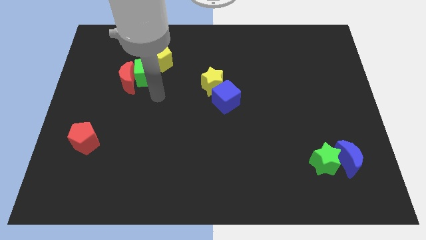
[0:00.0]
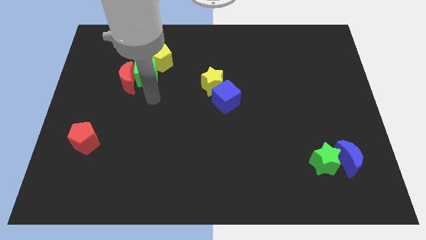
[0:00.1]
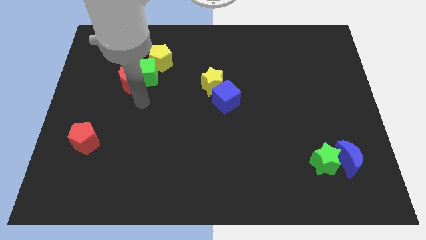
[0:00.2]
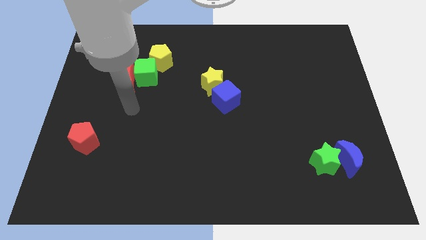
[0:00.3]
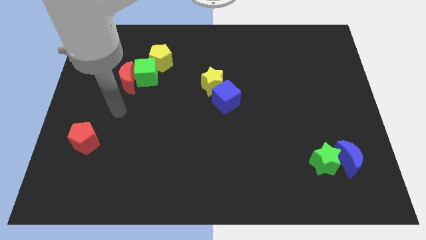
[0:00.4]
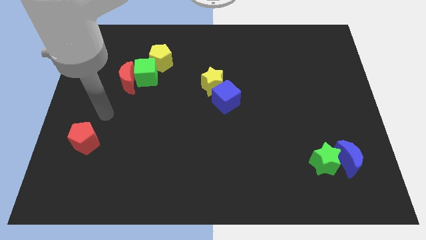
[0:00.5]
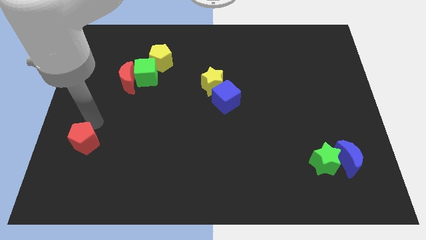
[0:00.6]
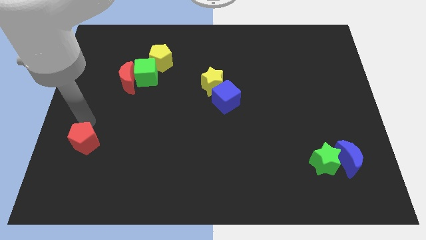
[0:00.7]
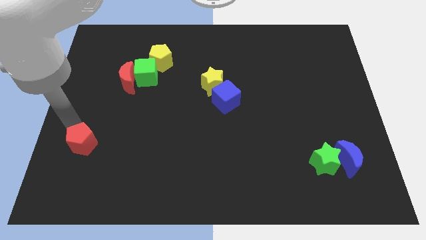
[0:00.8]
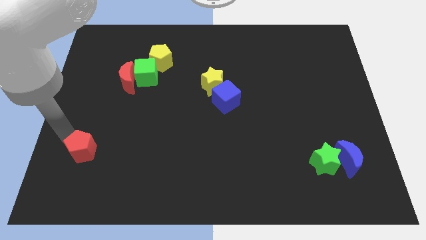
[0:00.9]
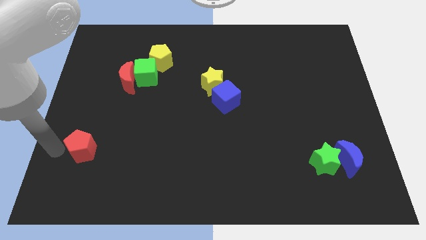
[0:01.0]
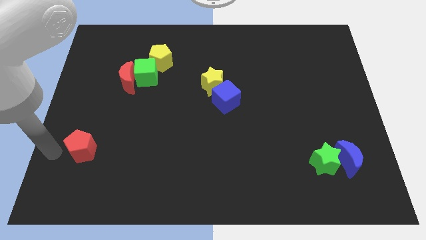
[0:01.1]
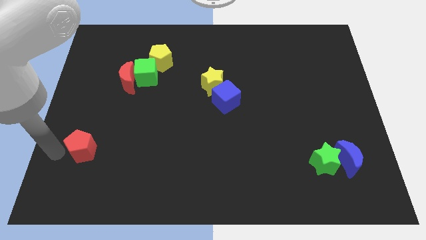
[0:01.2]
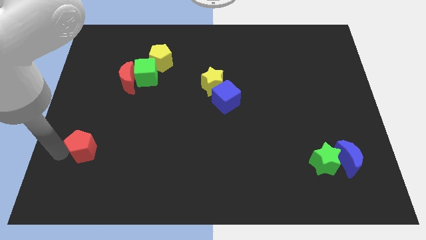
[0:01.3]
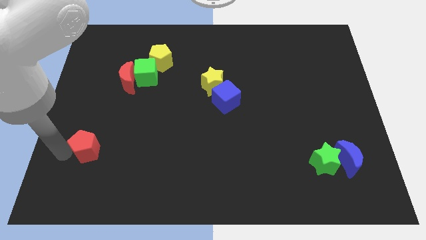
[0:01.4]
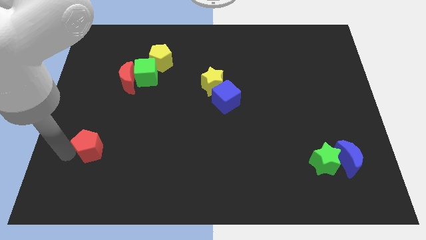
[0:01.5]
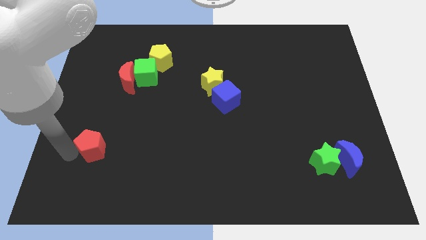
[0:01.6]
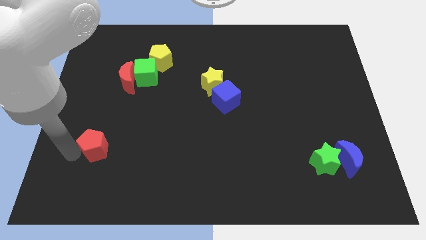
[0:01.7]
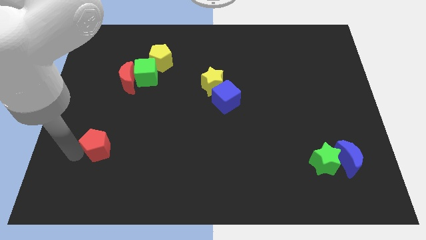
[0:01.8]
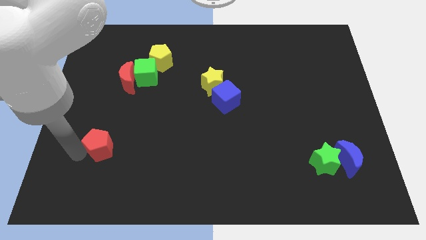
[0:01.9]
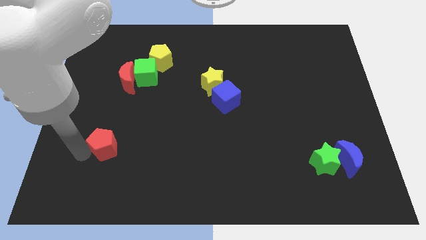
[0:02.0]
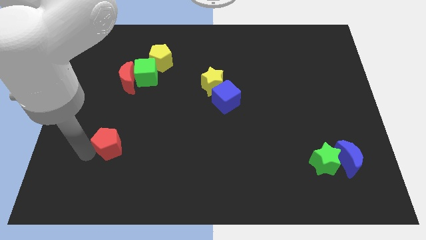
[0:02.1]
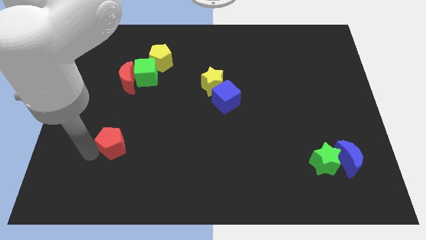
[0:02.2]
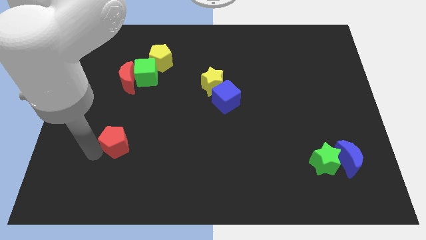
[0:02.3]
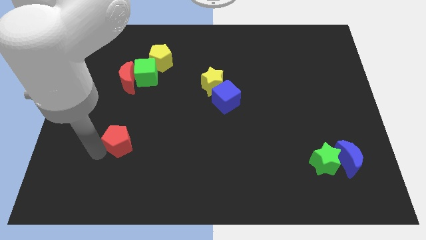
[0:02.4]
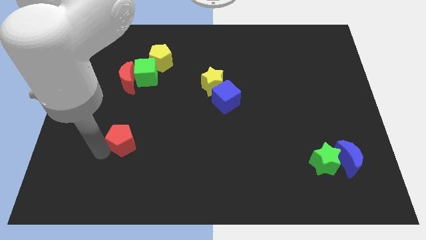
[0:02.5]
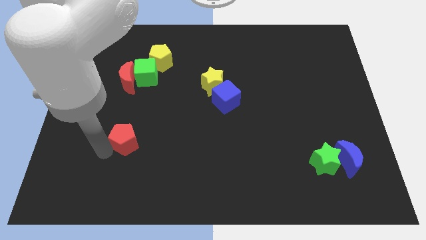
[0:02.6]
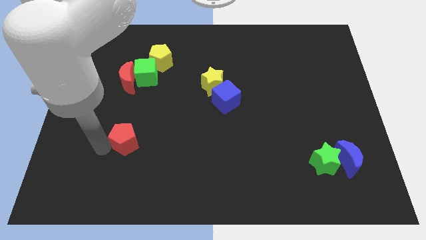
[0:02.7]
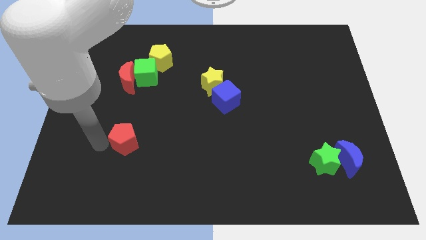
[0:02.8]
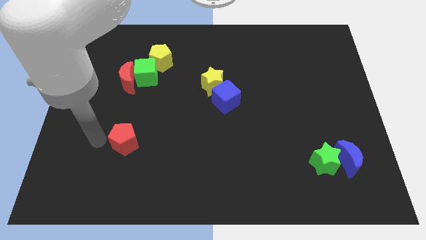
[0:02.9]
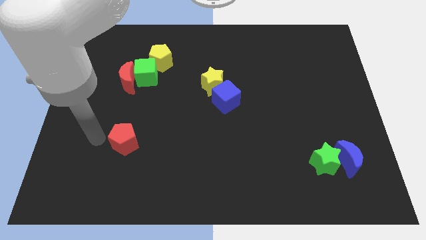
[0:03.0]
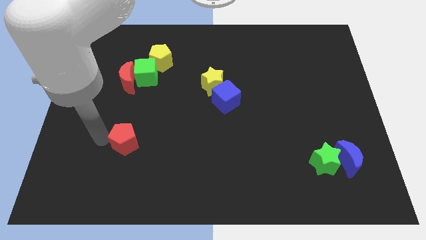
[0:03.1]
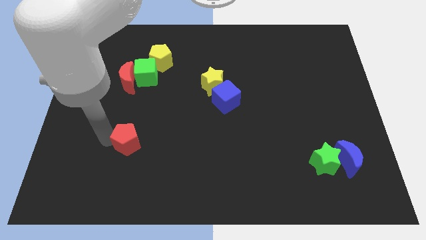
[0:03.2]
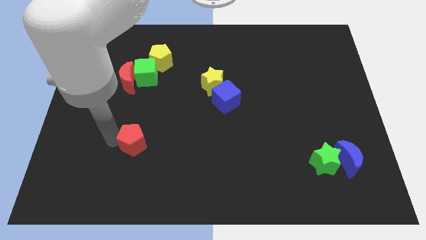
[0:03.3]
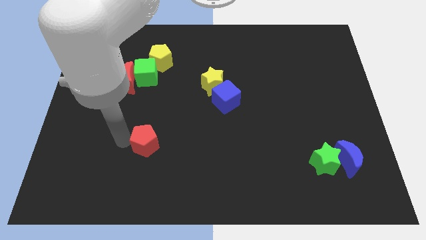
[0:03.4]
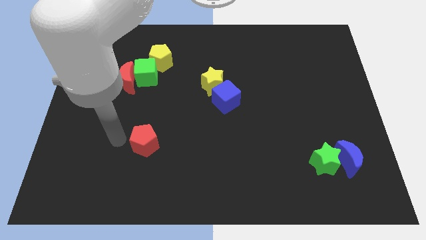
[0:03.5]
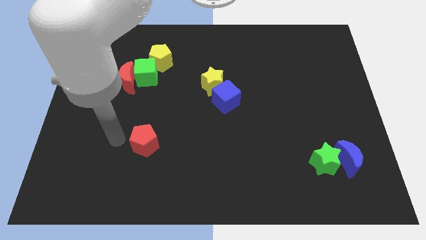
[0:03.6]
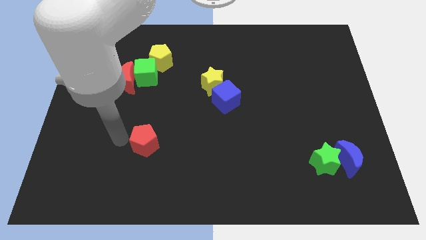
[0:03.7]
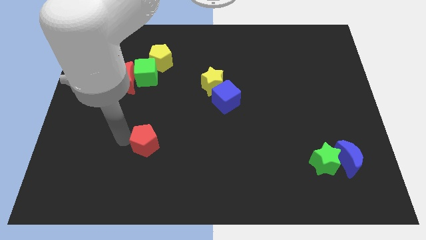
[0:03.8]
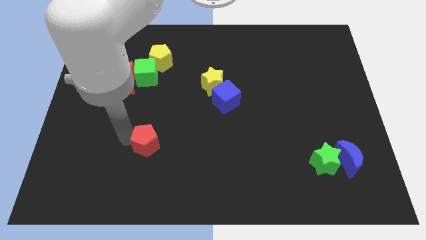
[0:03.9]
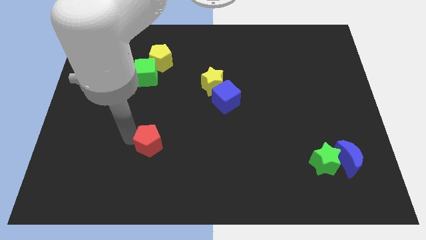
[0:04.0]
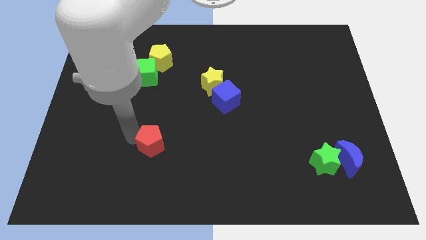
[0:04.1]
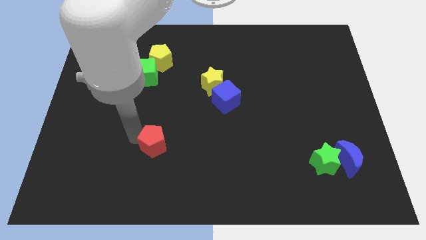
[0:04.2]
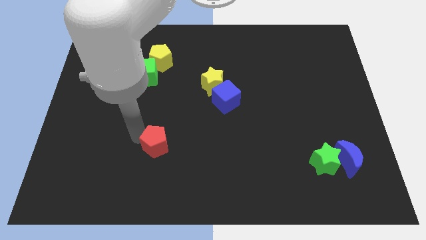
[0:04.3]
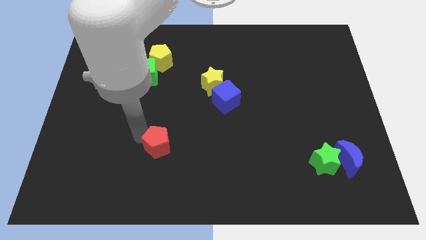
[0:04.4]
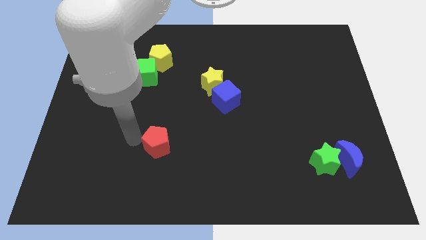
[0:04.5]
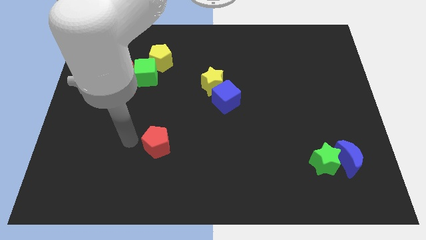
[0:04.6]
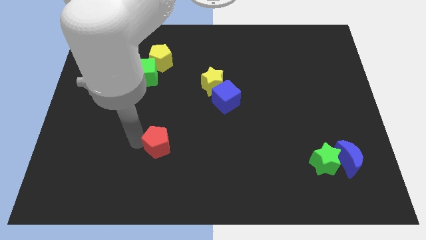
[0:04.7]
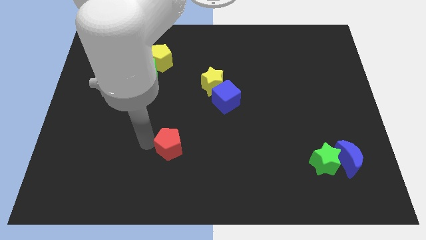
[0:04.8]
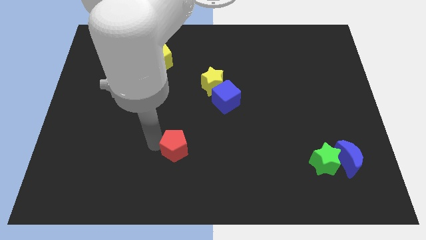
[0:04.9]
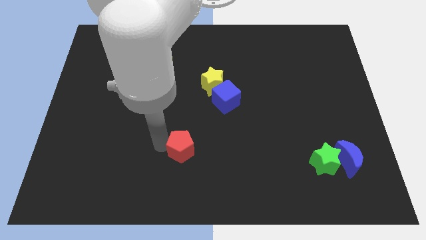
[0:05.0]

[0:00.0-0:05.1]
push the red pentagon right

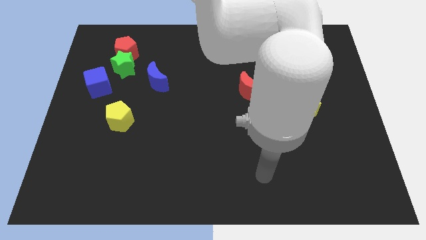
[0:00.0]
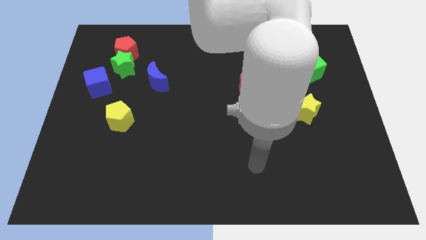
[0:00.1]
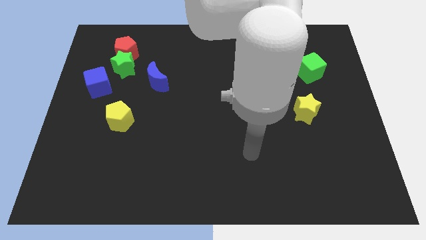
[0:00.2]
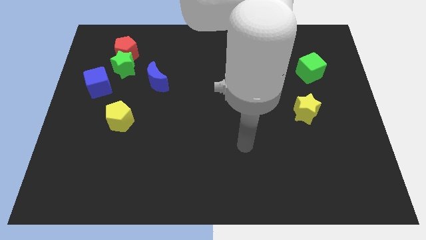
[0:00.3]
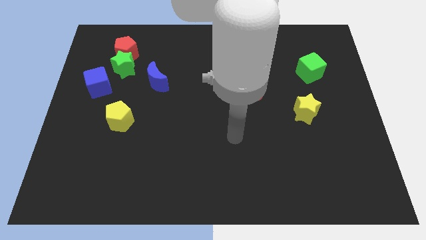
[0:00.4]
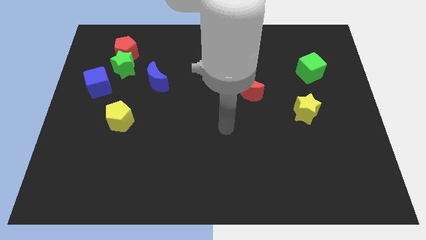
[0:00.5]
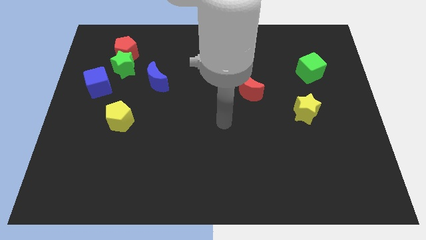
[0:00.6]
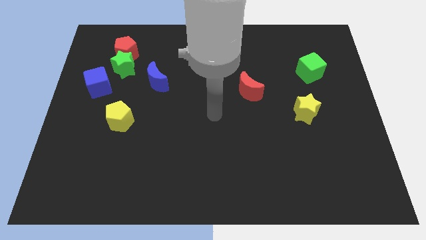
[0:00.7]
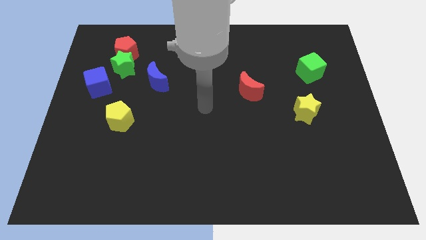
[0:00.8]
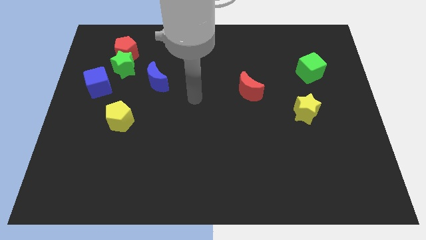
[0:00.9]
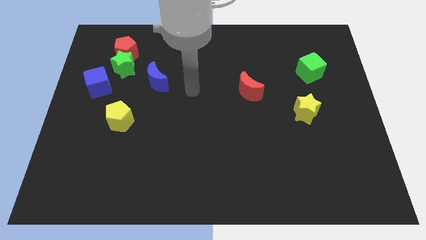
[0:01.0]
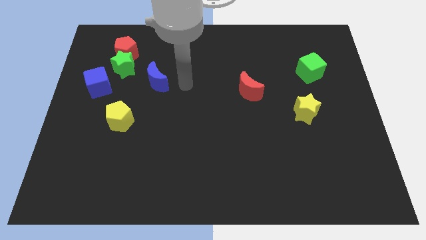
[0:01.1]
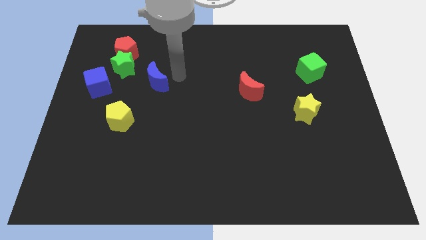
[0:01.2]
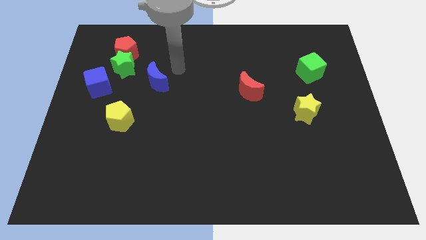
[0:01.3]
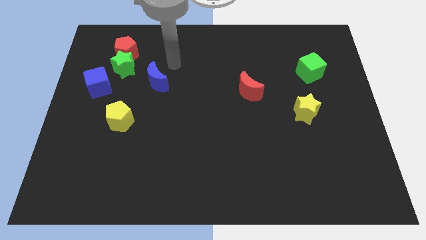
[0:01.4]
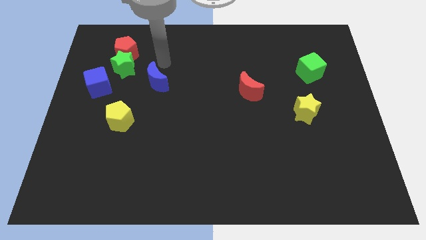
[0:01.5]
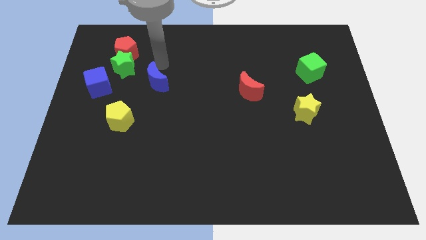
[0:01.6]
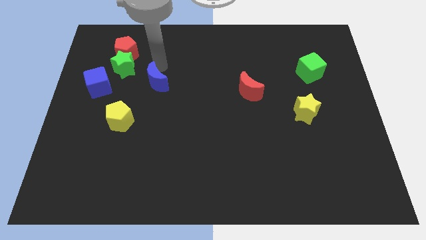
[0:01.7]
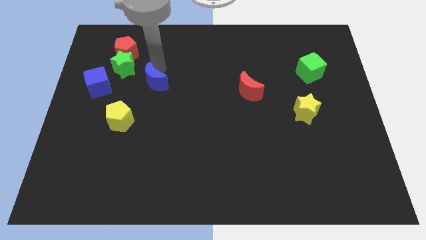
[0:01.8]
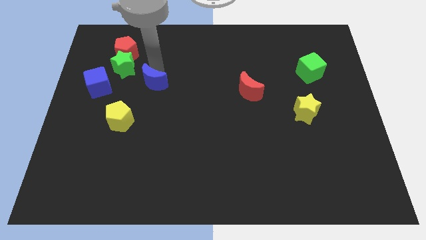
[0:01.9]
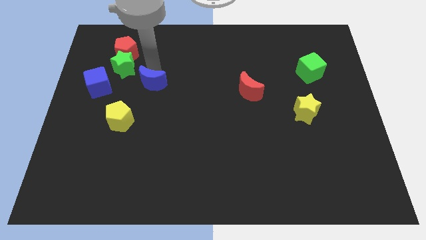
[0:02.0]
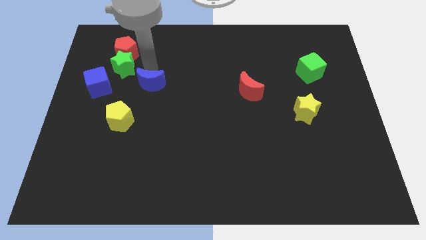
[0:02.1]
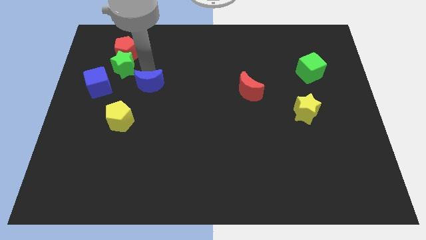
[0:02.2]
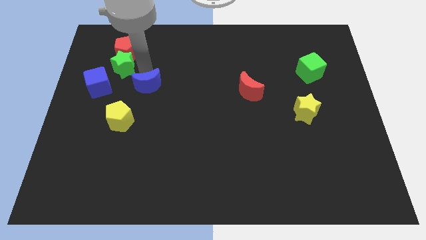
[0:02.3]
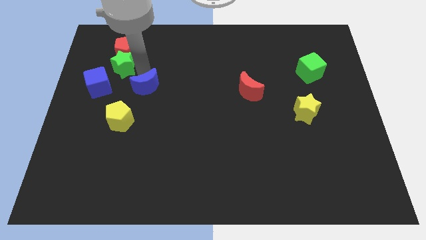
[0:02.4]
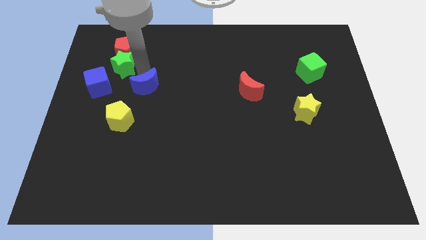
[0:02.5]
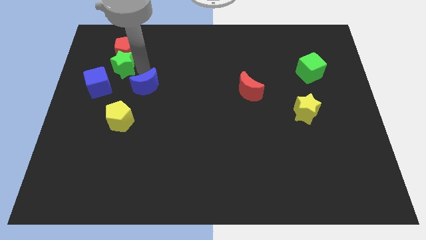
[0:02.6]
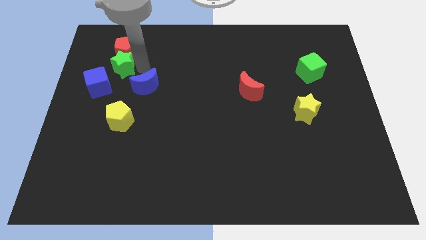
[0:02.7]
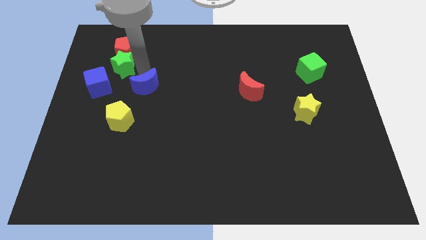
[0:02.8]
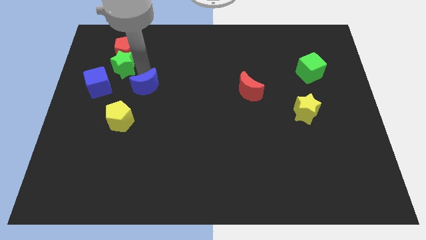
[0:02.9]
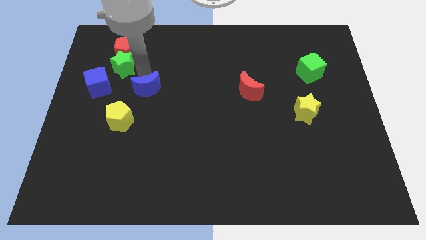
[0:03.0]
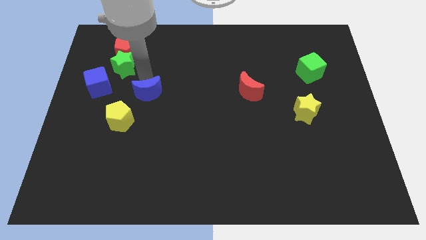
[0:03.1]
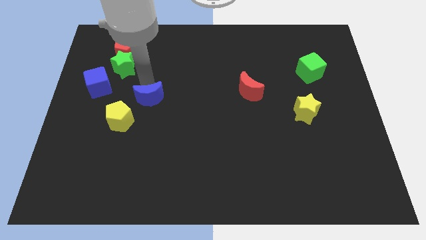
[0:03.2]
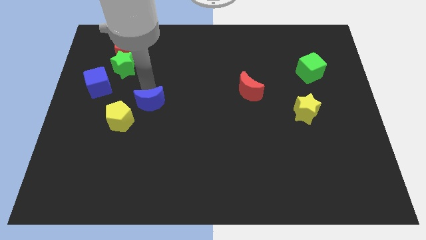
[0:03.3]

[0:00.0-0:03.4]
slightly slide the blue moon down
